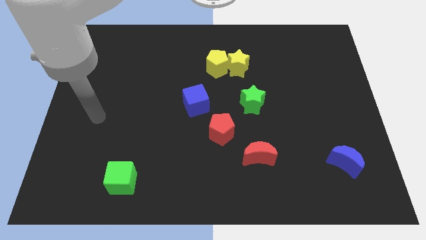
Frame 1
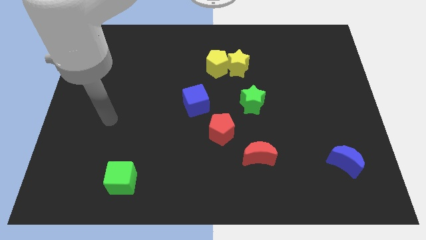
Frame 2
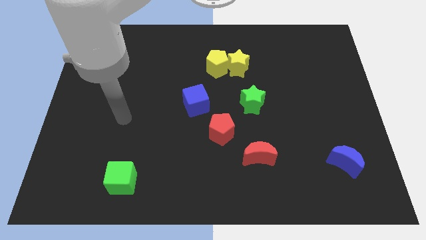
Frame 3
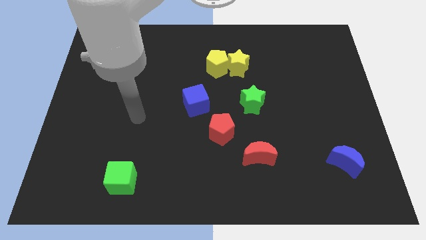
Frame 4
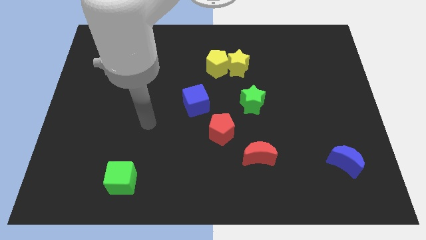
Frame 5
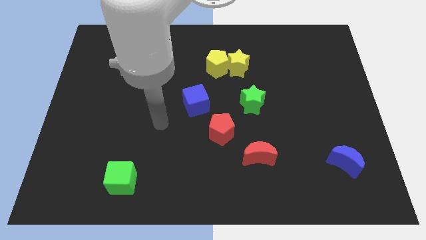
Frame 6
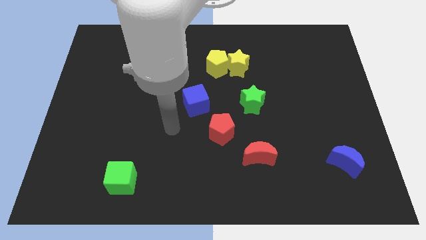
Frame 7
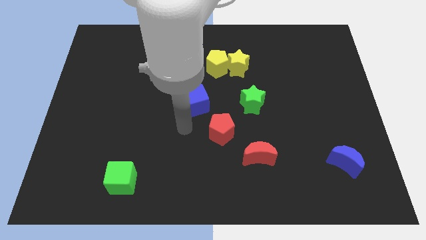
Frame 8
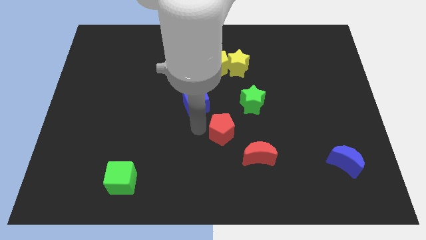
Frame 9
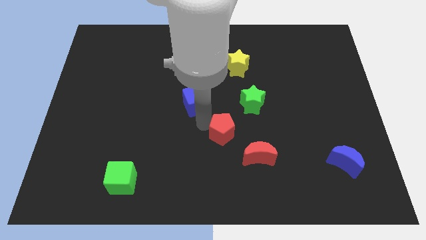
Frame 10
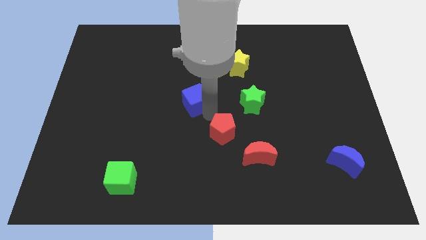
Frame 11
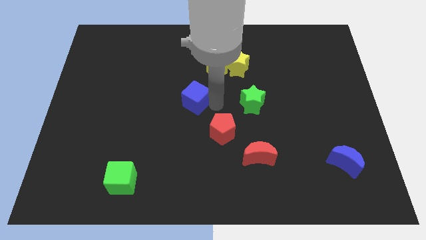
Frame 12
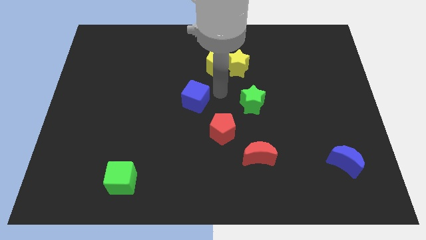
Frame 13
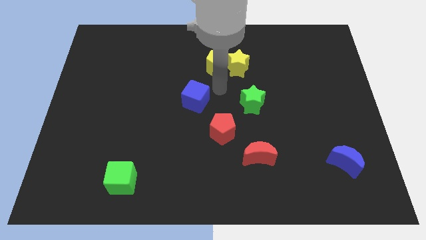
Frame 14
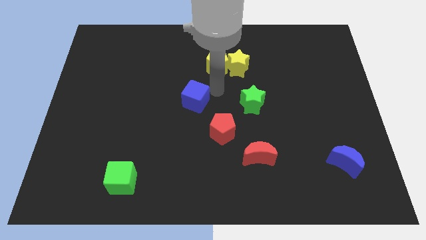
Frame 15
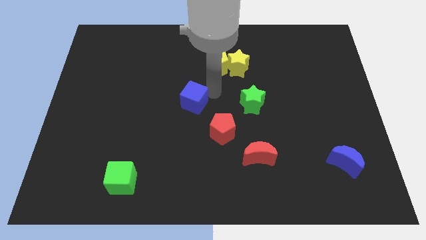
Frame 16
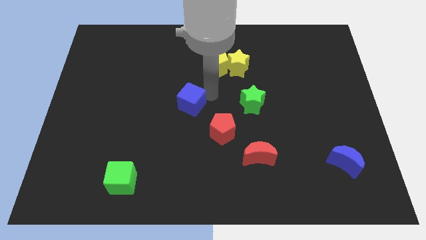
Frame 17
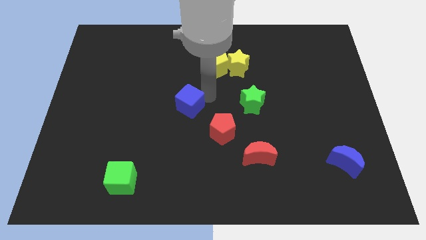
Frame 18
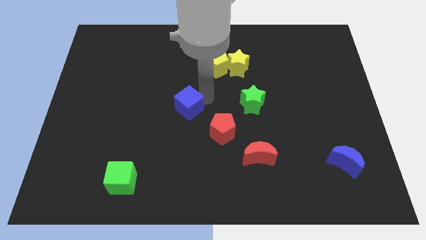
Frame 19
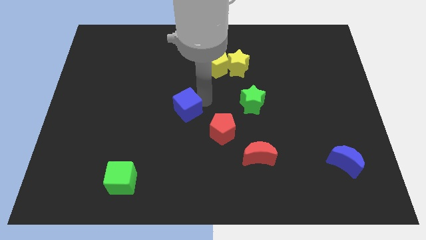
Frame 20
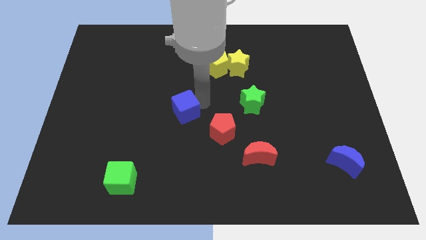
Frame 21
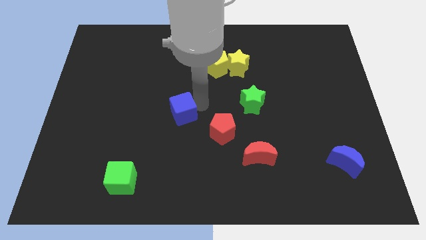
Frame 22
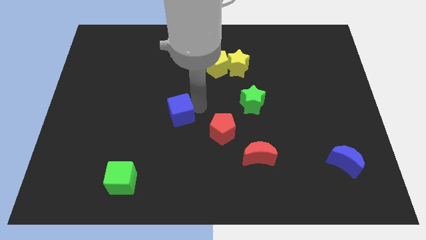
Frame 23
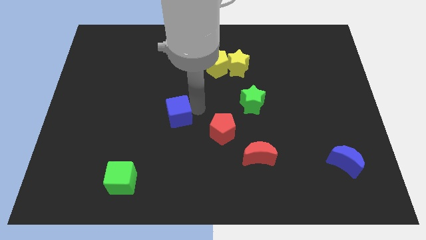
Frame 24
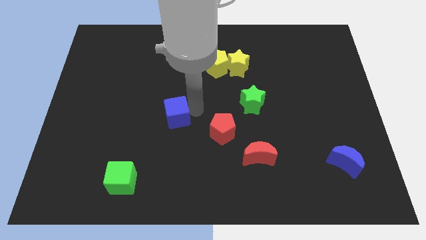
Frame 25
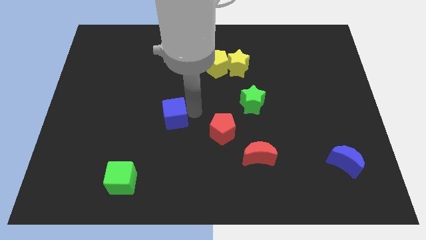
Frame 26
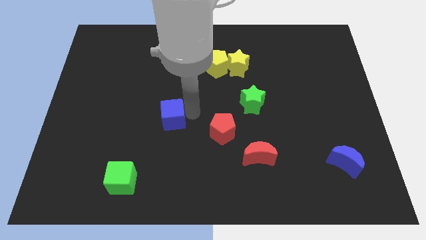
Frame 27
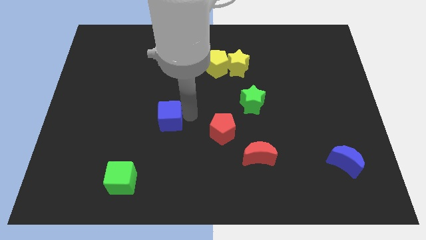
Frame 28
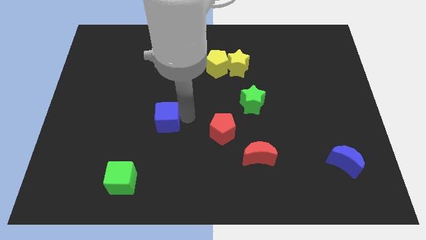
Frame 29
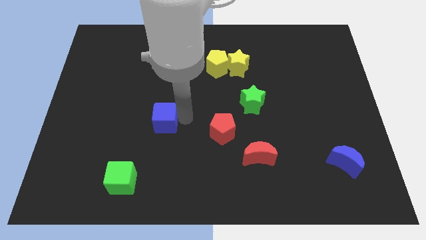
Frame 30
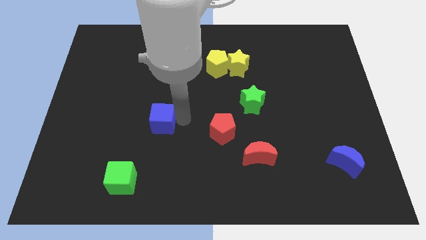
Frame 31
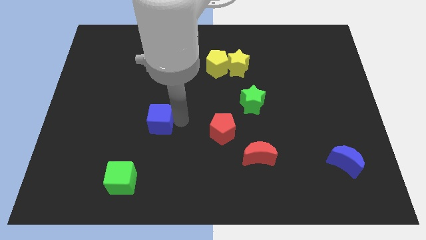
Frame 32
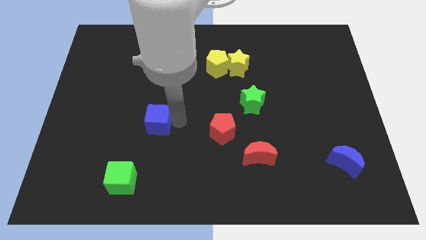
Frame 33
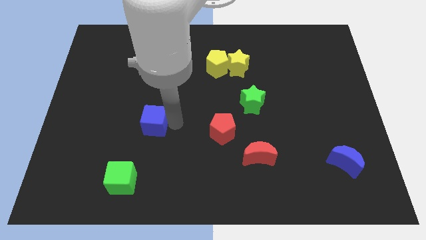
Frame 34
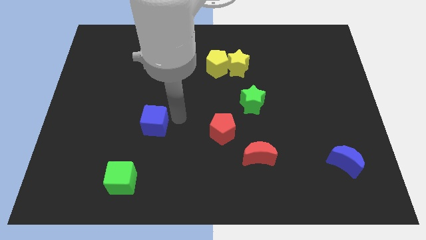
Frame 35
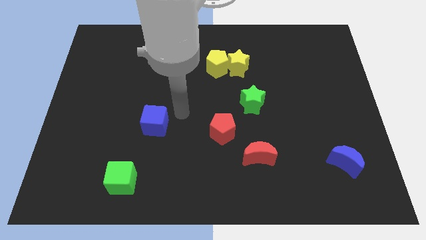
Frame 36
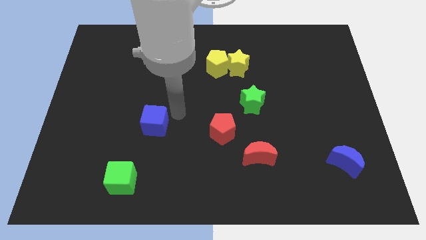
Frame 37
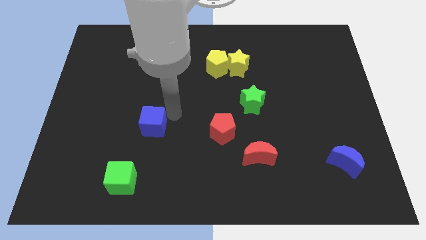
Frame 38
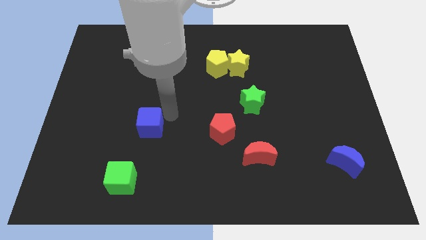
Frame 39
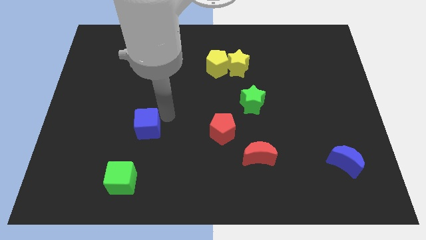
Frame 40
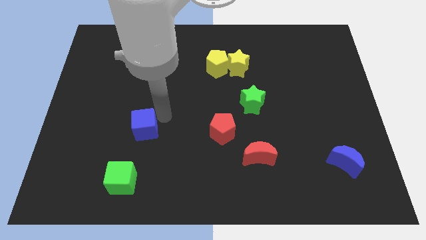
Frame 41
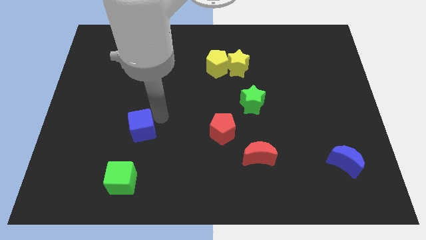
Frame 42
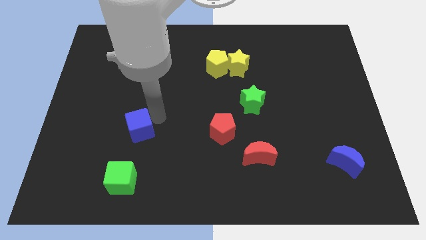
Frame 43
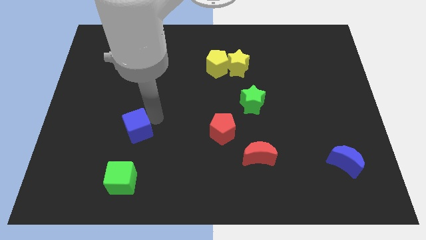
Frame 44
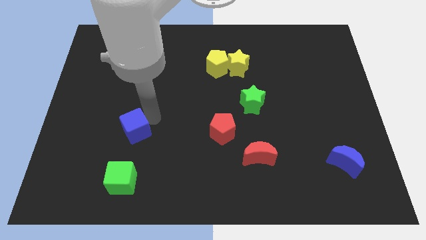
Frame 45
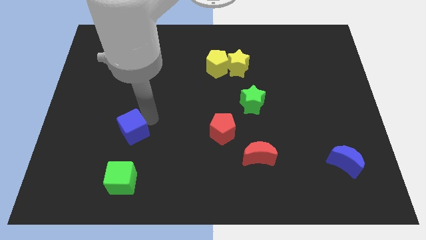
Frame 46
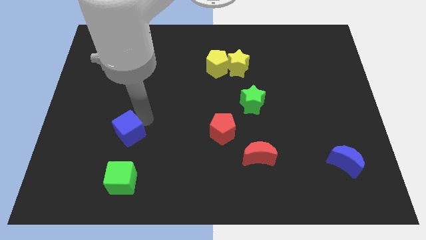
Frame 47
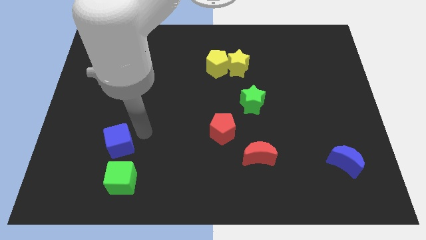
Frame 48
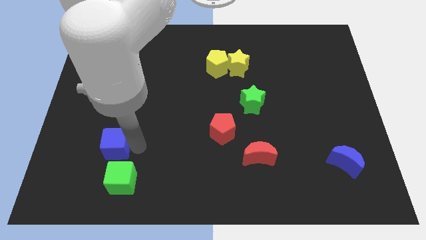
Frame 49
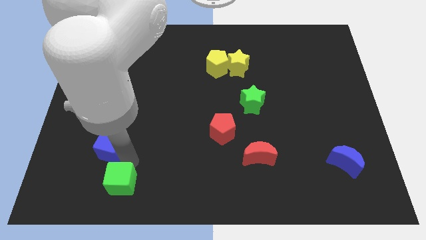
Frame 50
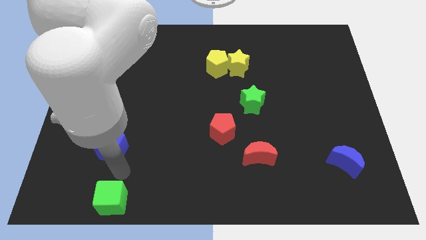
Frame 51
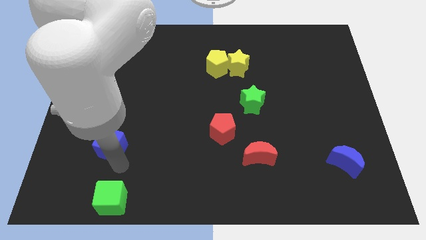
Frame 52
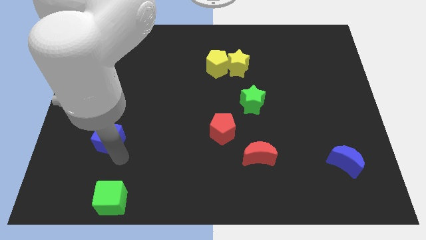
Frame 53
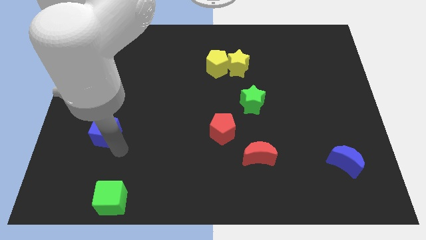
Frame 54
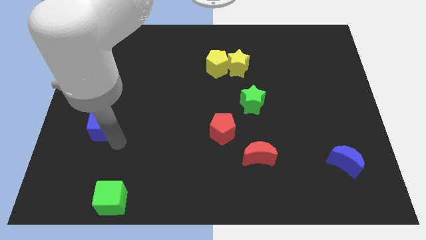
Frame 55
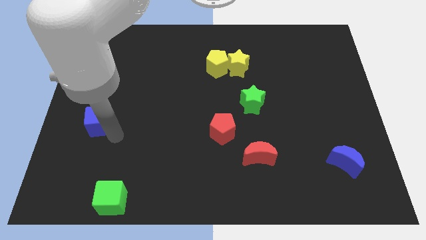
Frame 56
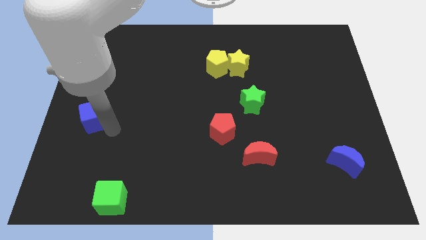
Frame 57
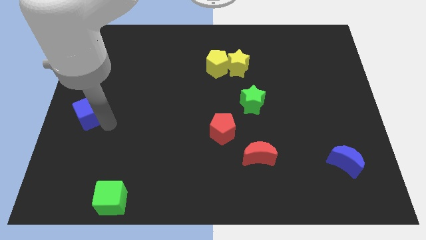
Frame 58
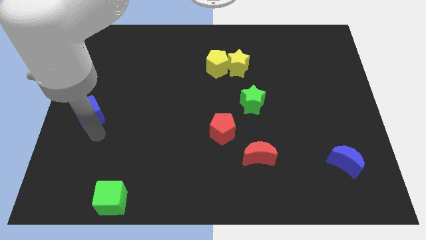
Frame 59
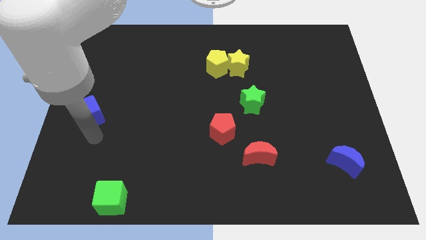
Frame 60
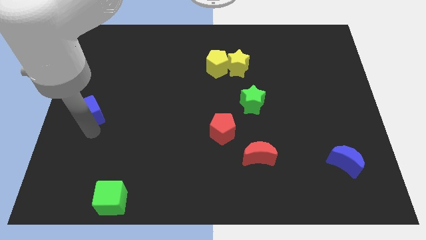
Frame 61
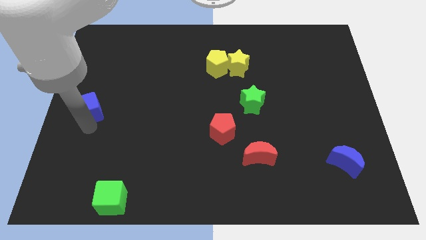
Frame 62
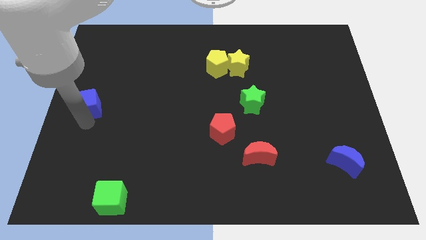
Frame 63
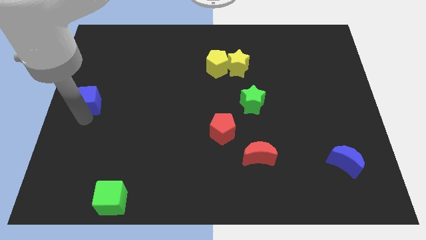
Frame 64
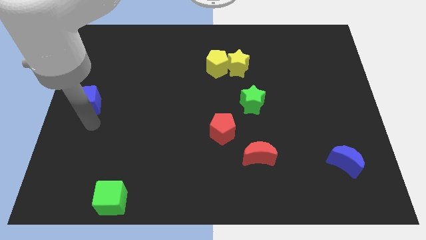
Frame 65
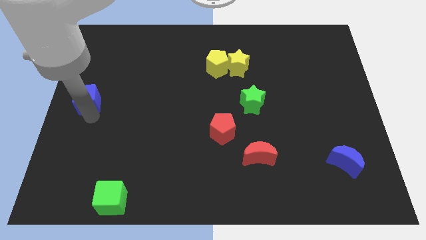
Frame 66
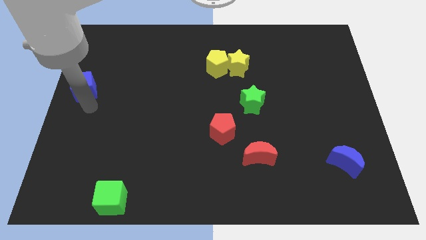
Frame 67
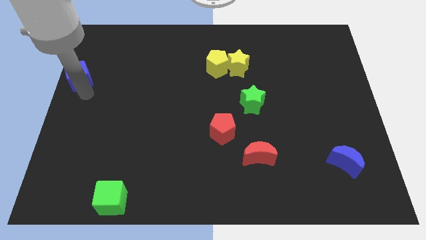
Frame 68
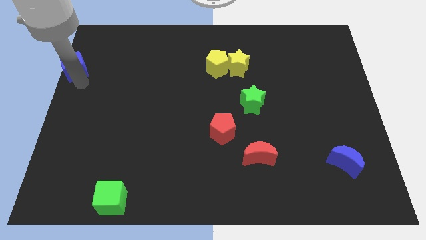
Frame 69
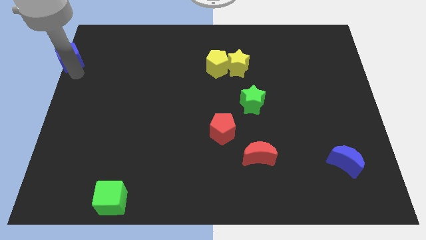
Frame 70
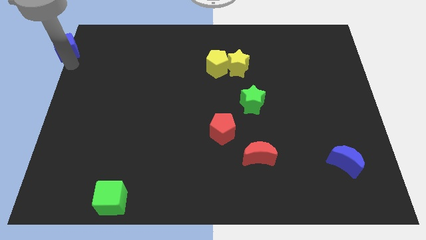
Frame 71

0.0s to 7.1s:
put the blue cube to the top left of the board
